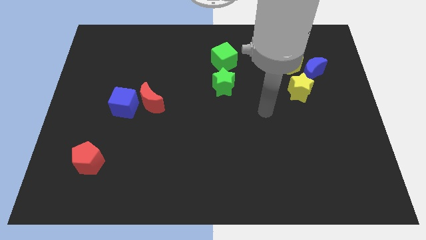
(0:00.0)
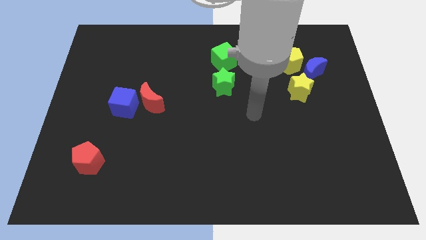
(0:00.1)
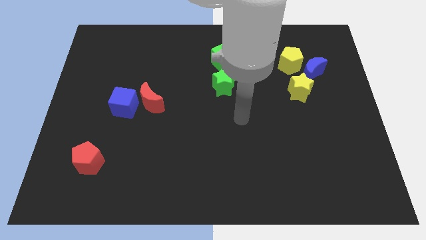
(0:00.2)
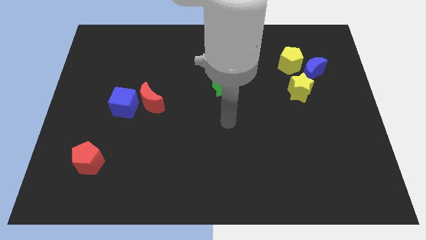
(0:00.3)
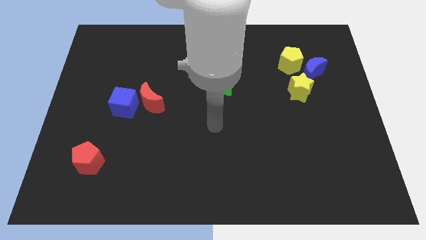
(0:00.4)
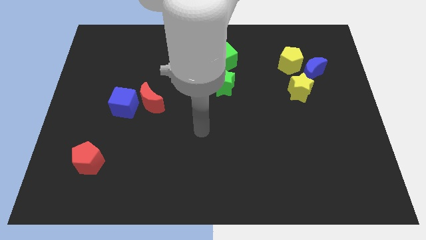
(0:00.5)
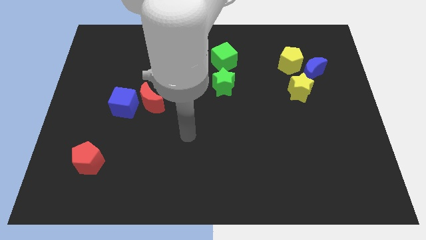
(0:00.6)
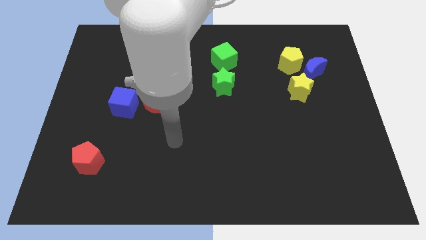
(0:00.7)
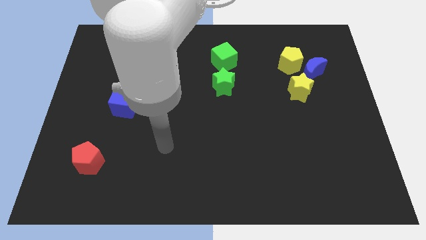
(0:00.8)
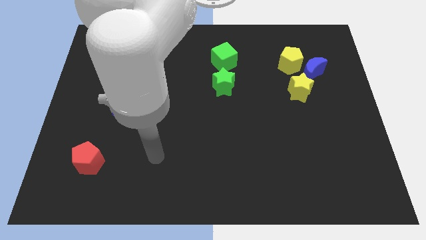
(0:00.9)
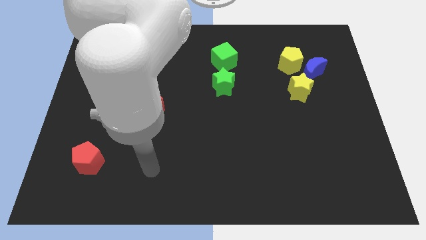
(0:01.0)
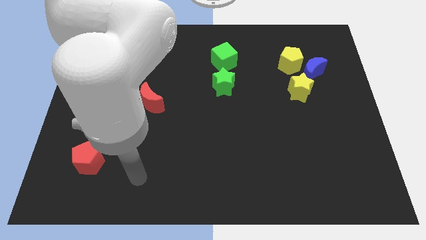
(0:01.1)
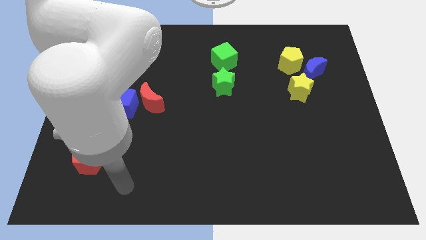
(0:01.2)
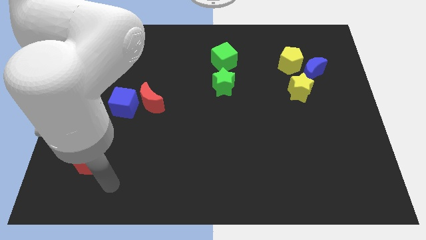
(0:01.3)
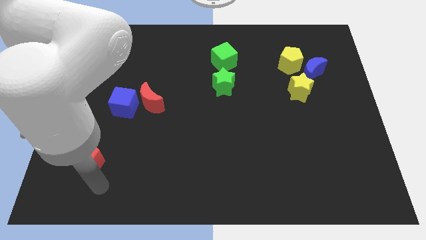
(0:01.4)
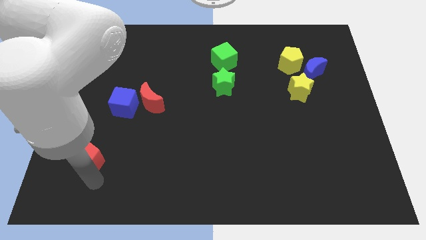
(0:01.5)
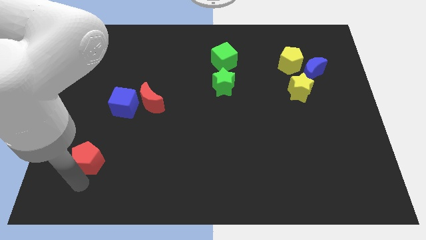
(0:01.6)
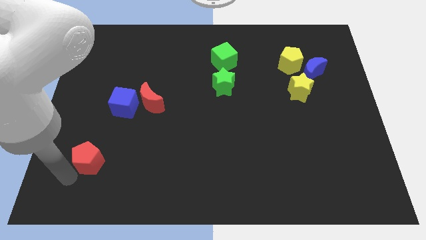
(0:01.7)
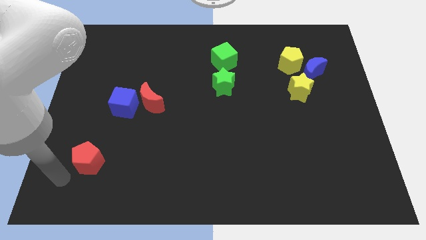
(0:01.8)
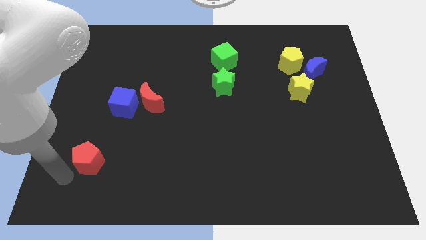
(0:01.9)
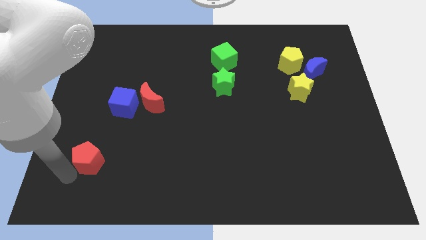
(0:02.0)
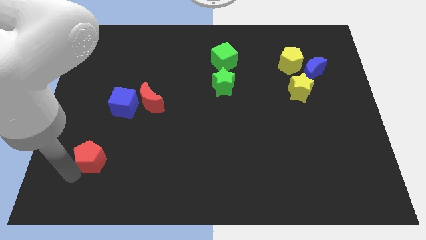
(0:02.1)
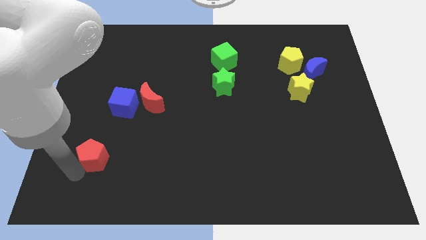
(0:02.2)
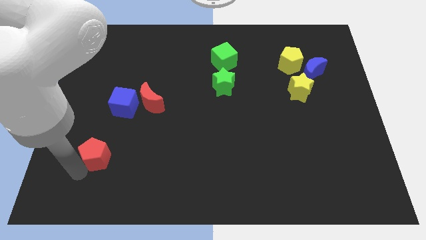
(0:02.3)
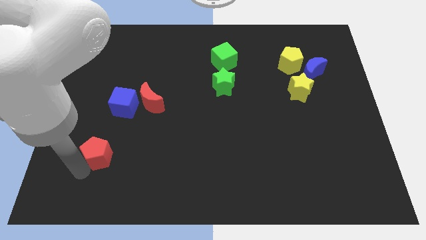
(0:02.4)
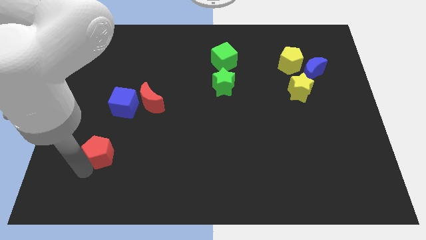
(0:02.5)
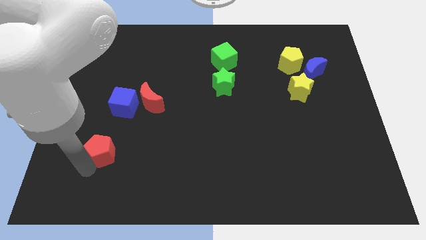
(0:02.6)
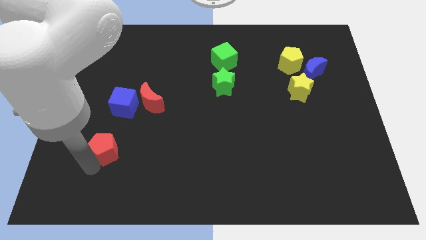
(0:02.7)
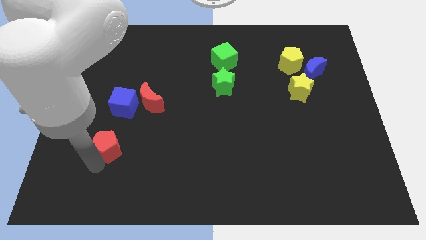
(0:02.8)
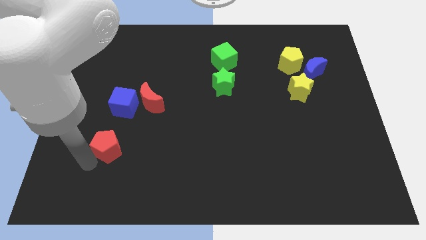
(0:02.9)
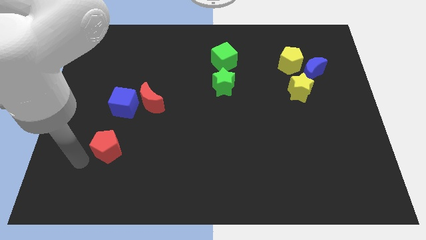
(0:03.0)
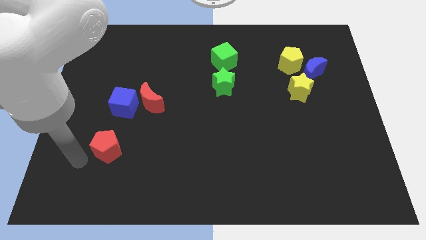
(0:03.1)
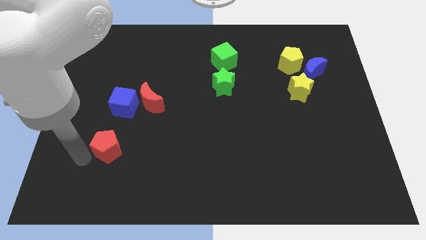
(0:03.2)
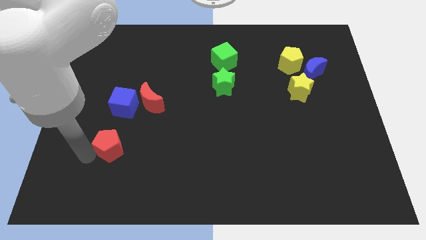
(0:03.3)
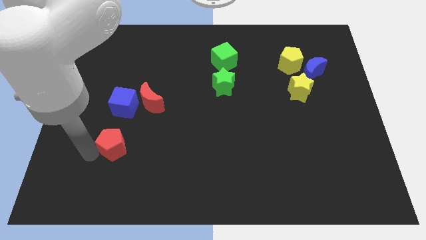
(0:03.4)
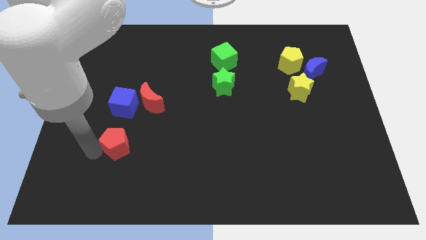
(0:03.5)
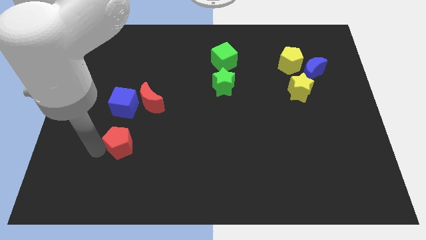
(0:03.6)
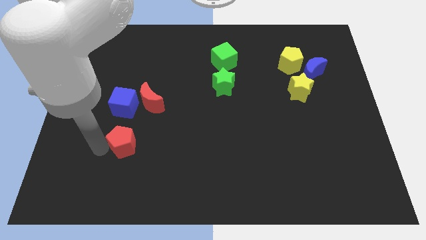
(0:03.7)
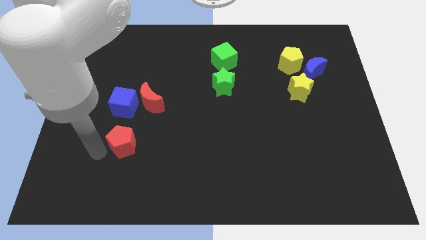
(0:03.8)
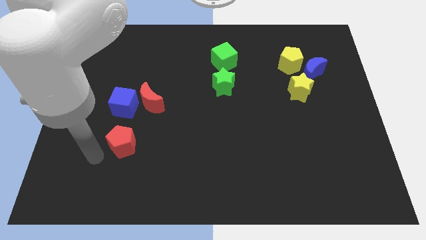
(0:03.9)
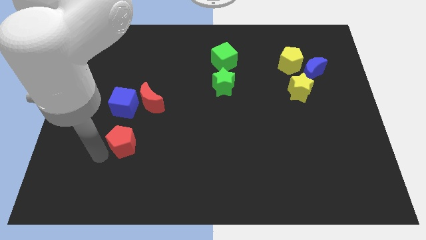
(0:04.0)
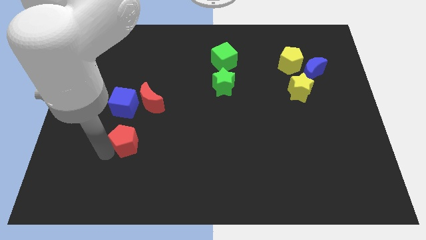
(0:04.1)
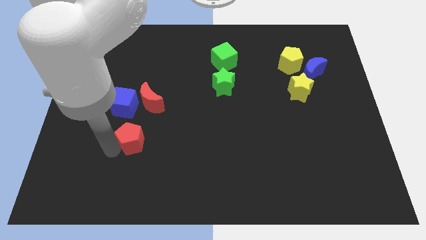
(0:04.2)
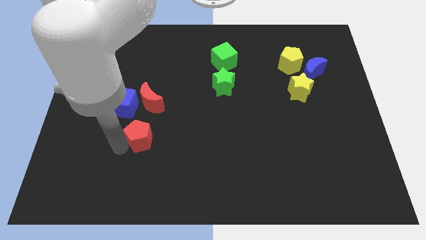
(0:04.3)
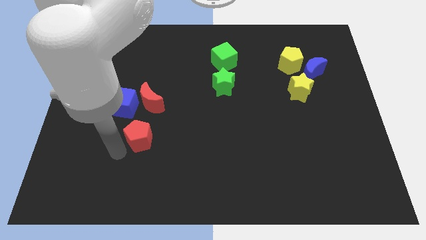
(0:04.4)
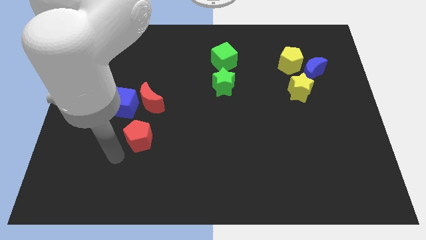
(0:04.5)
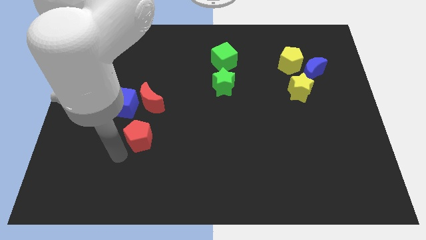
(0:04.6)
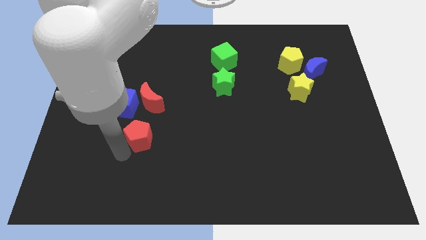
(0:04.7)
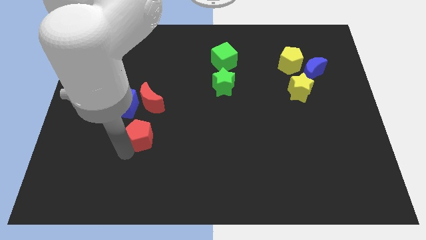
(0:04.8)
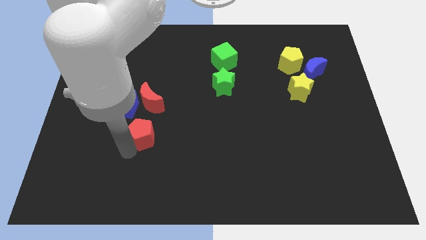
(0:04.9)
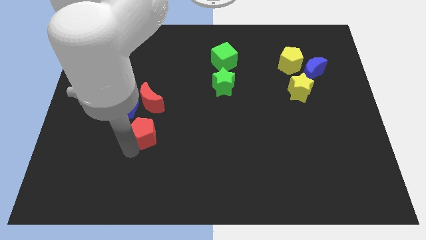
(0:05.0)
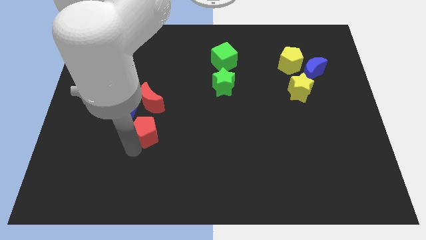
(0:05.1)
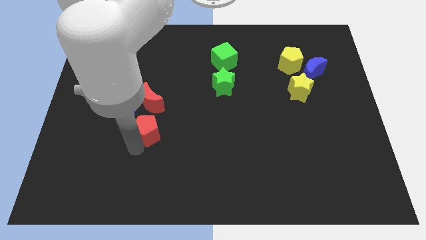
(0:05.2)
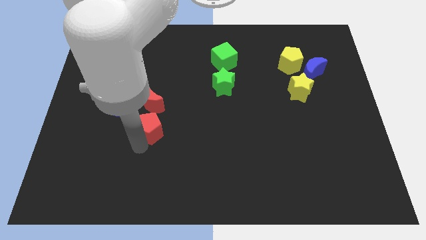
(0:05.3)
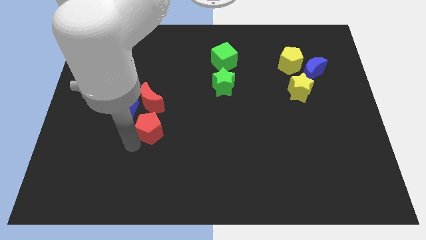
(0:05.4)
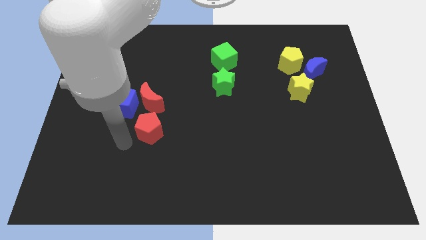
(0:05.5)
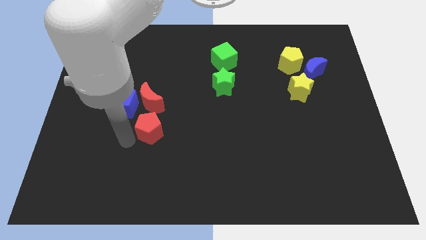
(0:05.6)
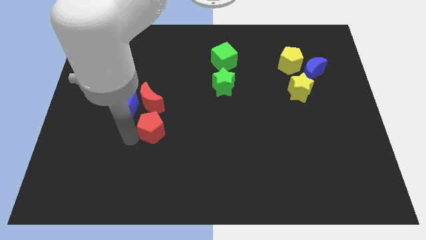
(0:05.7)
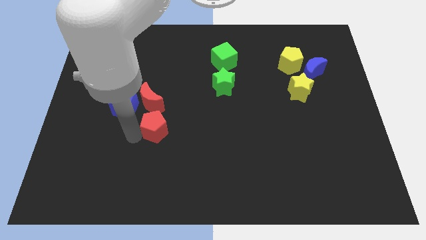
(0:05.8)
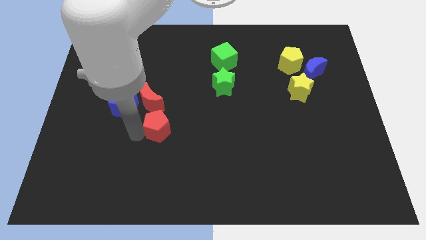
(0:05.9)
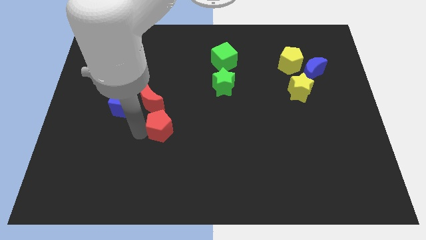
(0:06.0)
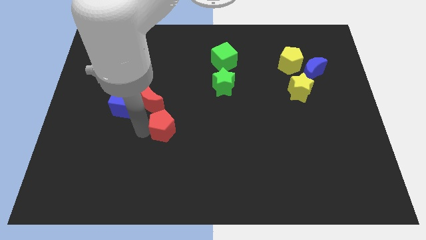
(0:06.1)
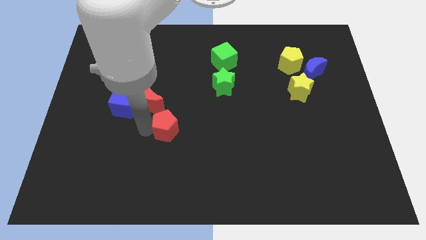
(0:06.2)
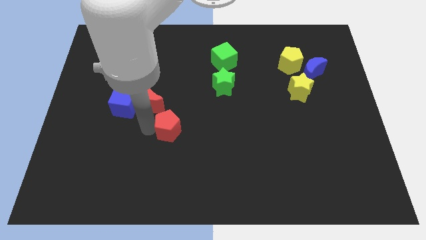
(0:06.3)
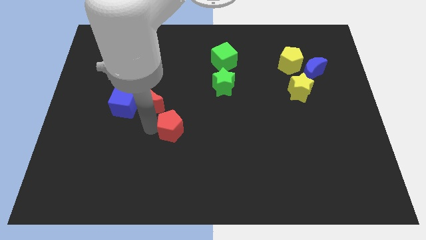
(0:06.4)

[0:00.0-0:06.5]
put the red pentagon to the middle of the board
